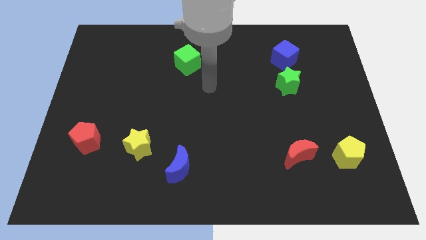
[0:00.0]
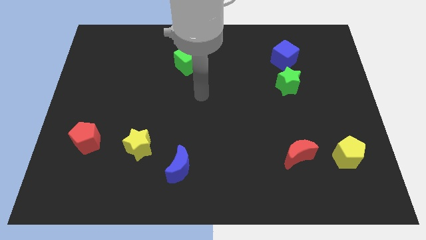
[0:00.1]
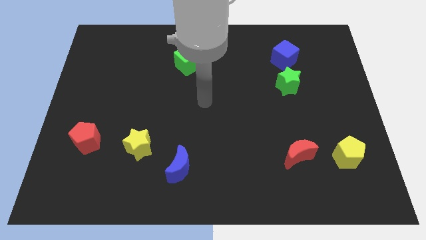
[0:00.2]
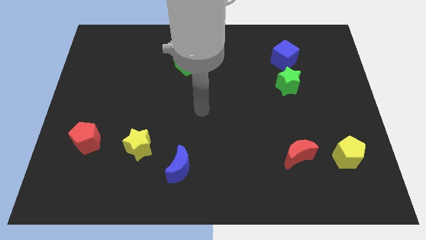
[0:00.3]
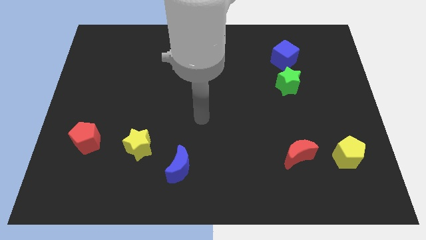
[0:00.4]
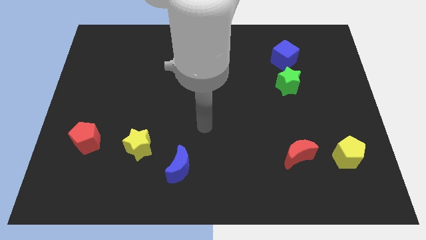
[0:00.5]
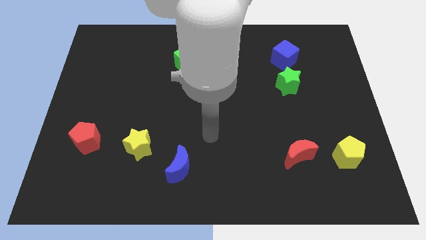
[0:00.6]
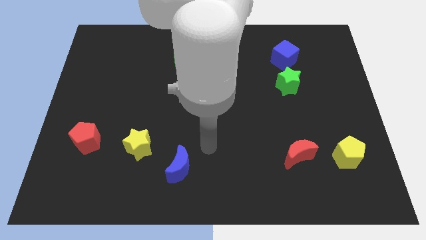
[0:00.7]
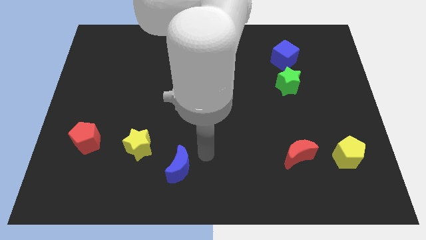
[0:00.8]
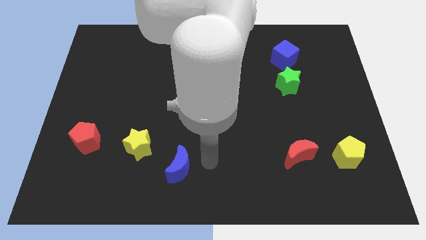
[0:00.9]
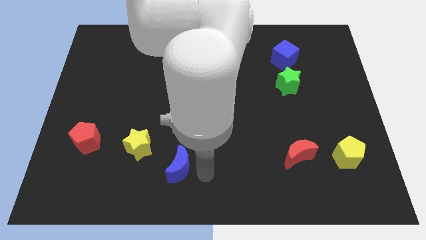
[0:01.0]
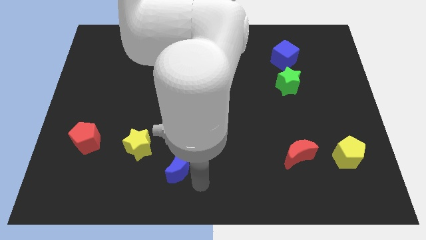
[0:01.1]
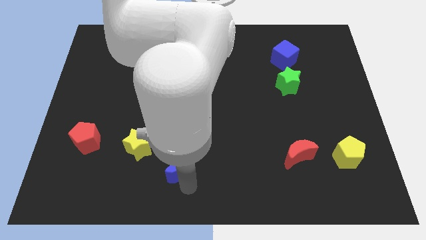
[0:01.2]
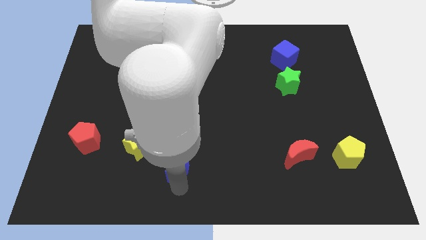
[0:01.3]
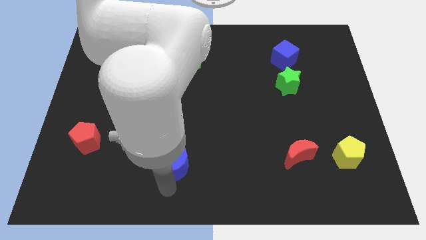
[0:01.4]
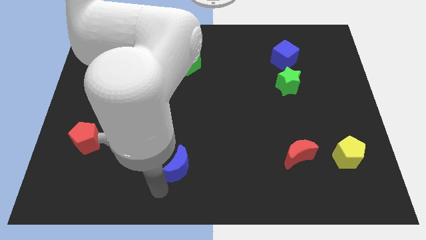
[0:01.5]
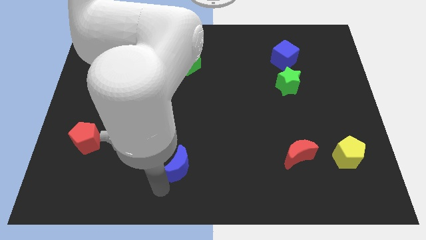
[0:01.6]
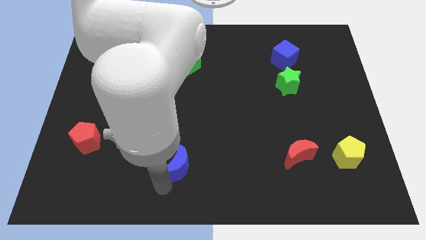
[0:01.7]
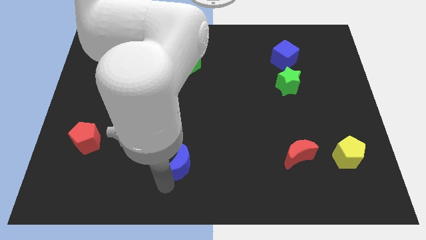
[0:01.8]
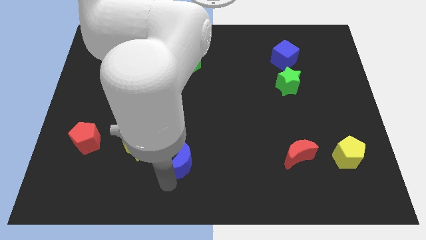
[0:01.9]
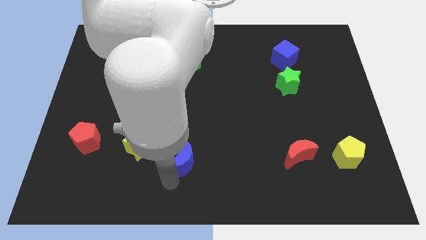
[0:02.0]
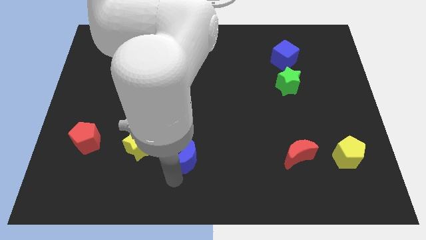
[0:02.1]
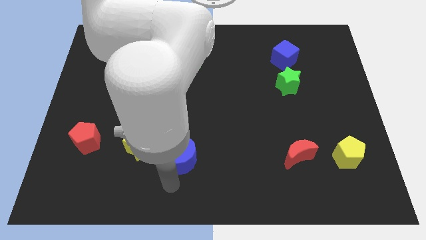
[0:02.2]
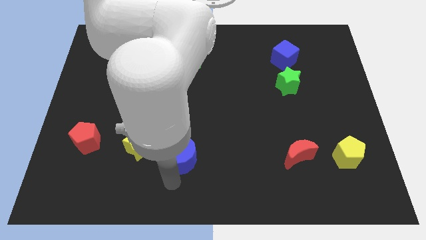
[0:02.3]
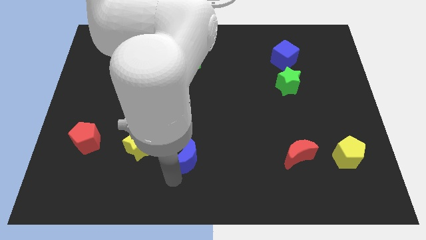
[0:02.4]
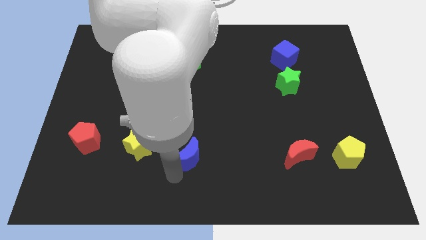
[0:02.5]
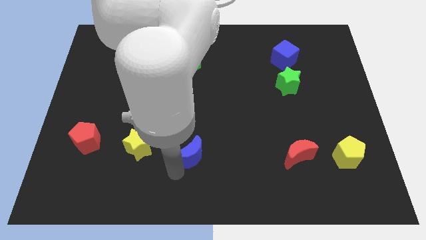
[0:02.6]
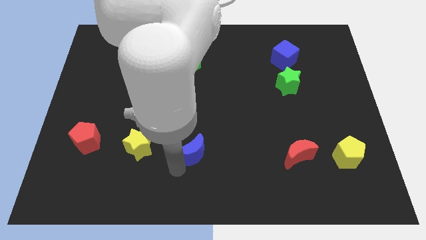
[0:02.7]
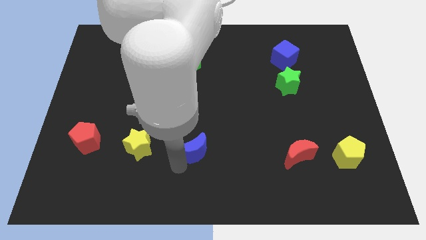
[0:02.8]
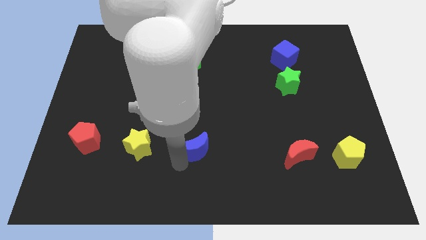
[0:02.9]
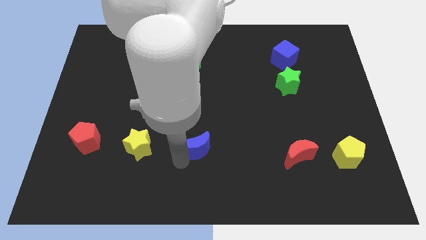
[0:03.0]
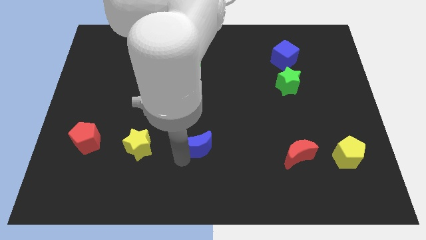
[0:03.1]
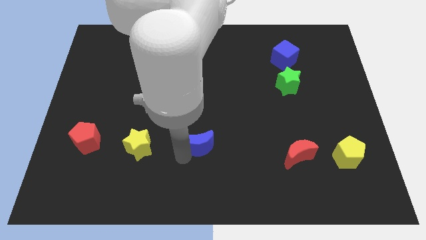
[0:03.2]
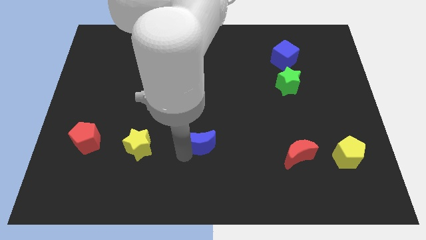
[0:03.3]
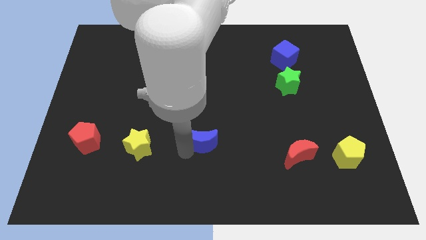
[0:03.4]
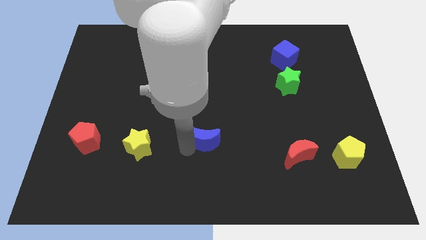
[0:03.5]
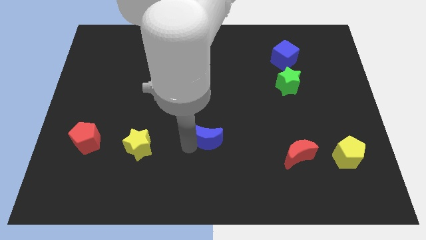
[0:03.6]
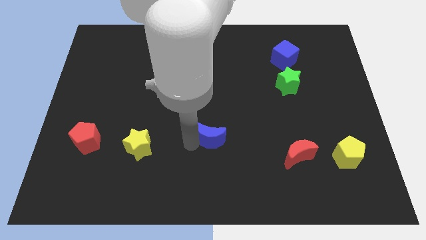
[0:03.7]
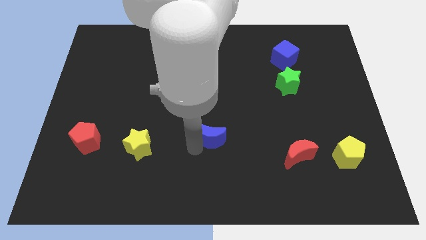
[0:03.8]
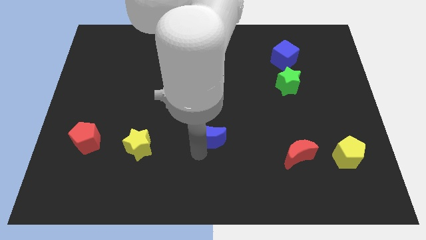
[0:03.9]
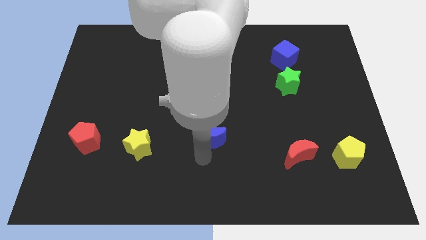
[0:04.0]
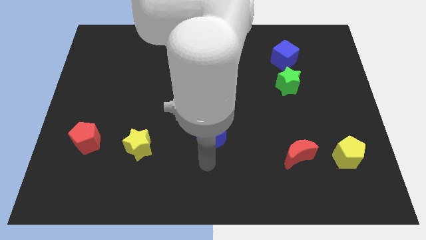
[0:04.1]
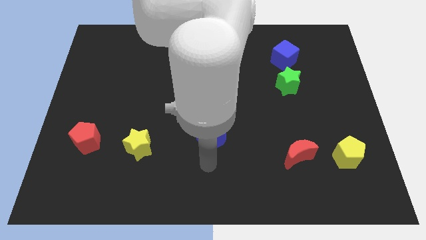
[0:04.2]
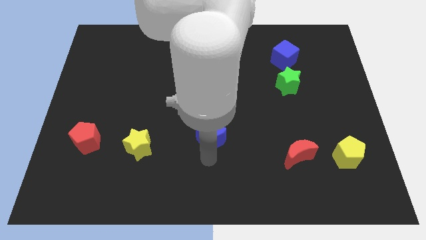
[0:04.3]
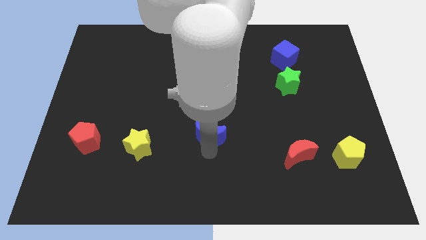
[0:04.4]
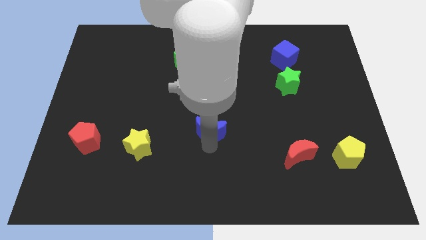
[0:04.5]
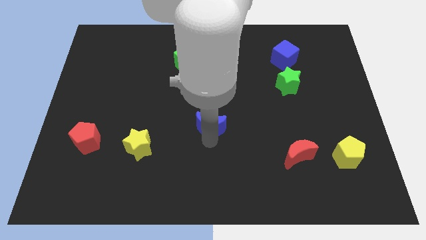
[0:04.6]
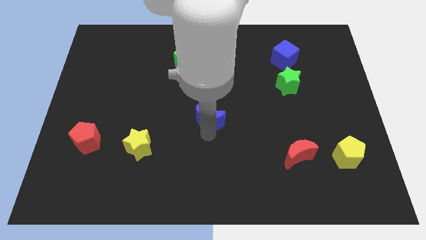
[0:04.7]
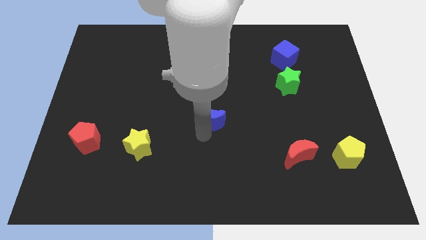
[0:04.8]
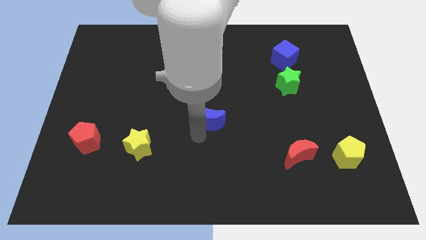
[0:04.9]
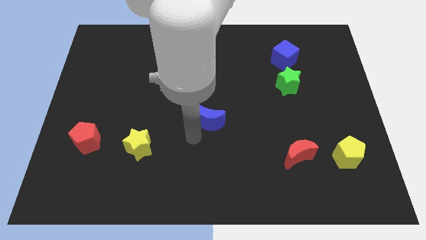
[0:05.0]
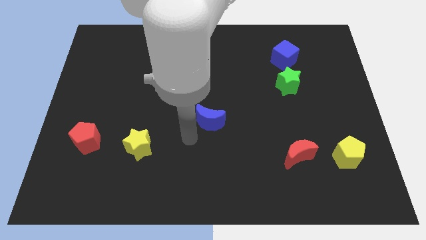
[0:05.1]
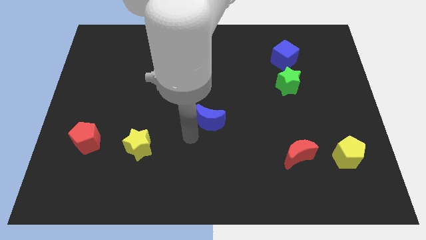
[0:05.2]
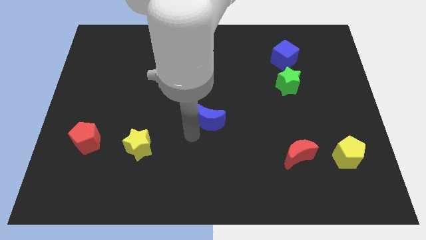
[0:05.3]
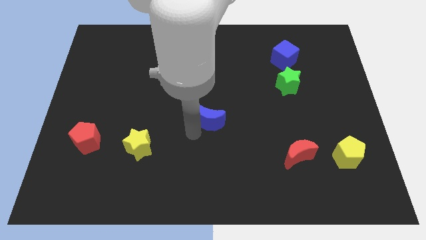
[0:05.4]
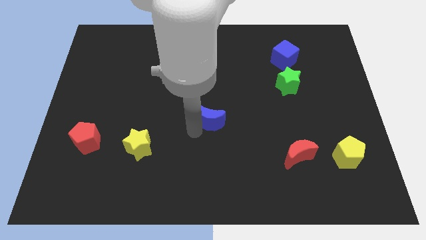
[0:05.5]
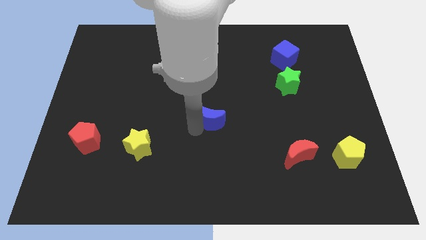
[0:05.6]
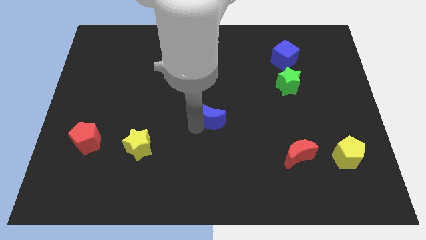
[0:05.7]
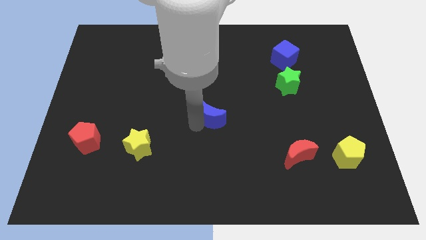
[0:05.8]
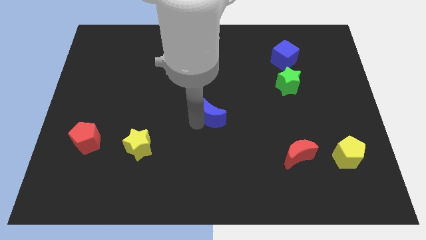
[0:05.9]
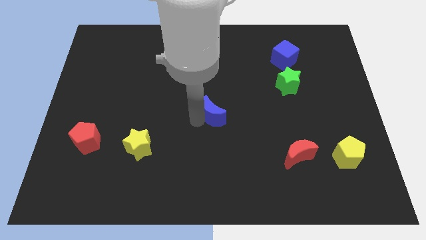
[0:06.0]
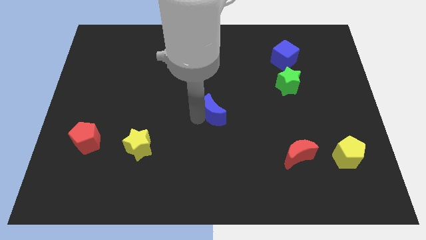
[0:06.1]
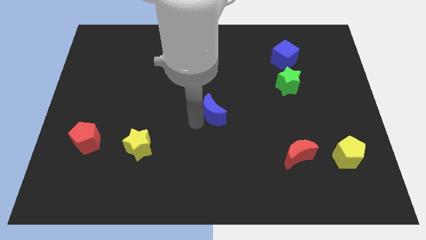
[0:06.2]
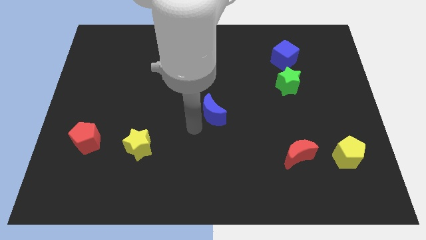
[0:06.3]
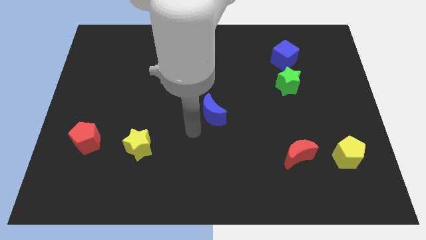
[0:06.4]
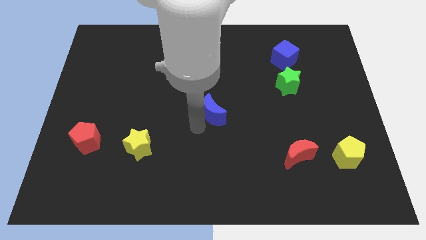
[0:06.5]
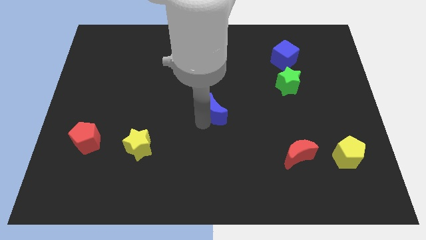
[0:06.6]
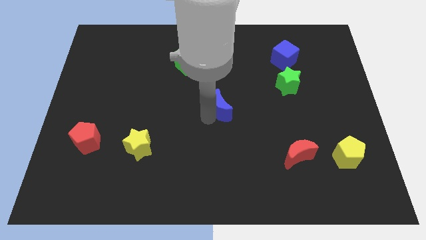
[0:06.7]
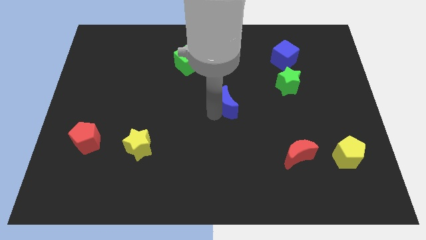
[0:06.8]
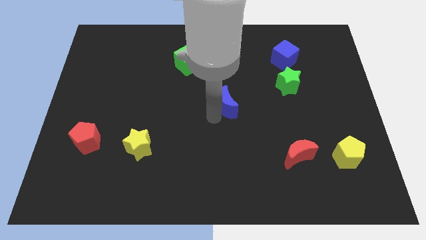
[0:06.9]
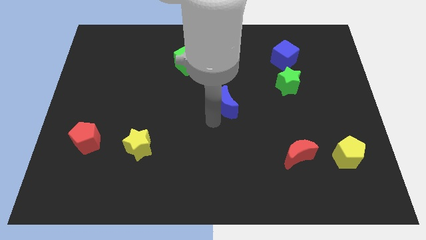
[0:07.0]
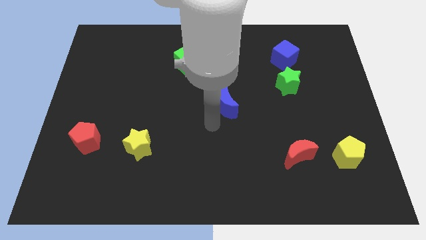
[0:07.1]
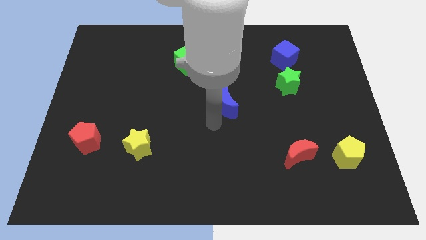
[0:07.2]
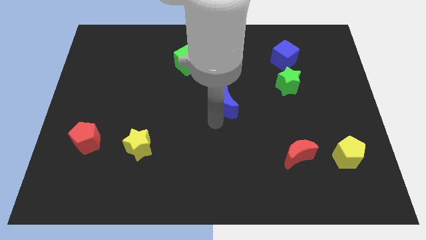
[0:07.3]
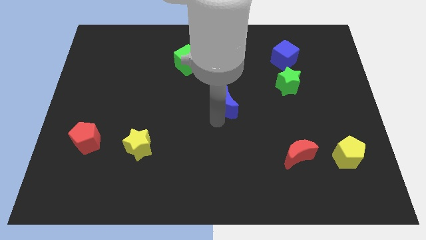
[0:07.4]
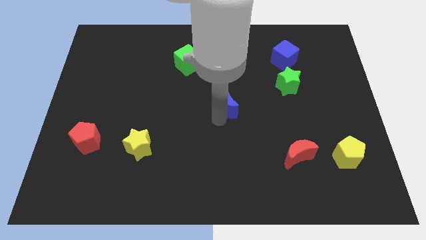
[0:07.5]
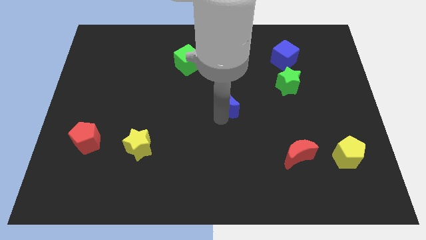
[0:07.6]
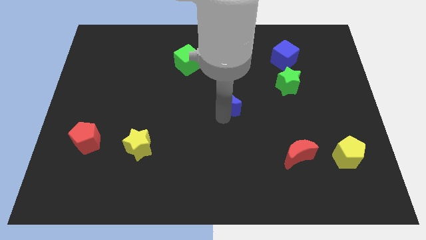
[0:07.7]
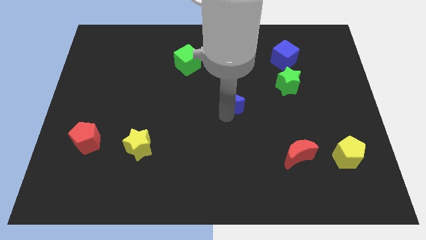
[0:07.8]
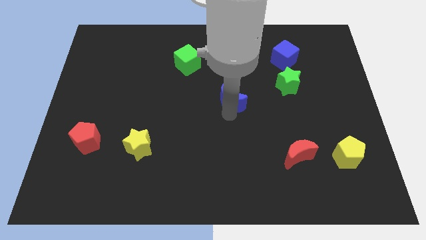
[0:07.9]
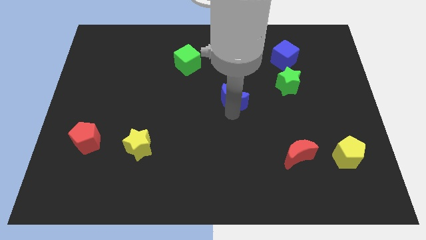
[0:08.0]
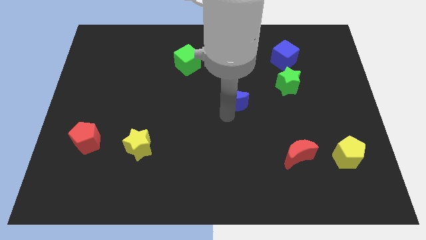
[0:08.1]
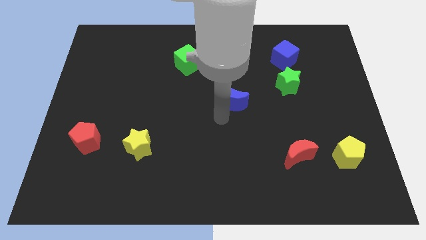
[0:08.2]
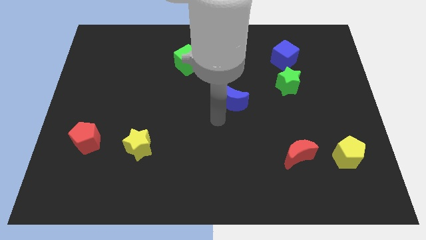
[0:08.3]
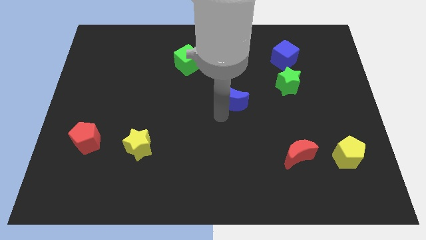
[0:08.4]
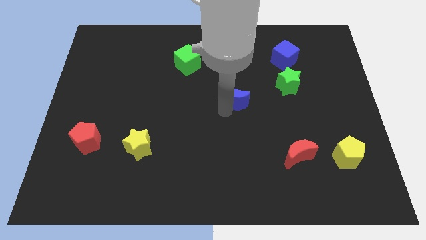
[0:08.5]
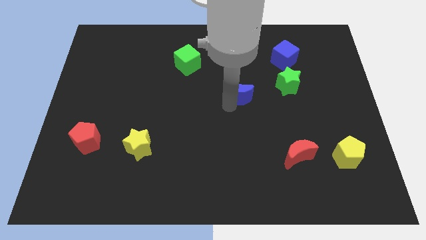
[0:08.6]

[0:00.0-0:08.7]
slide the blue moon to the left side of the green star
